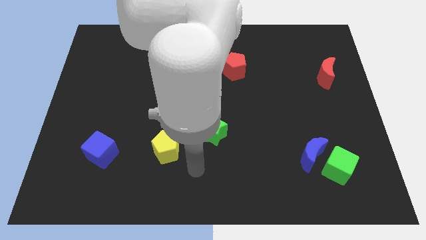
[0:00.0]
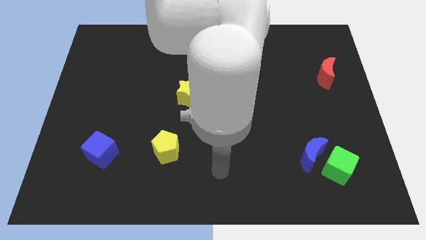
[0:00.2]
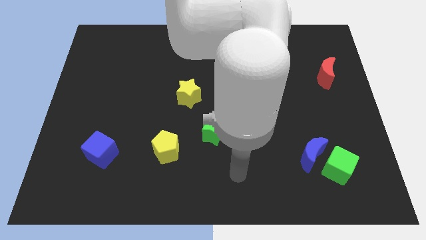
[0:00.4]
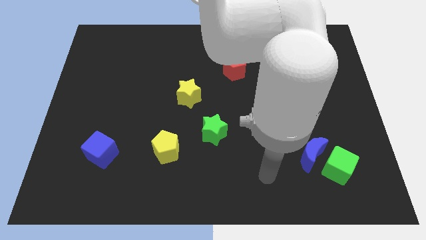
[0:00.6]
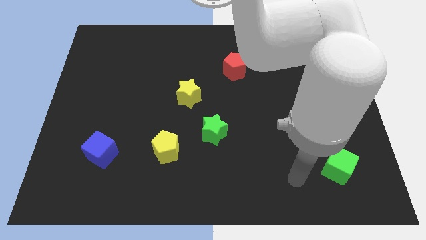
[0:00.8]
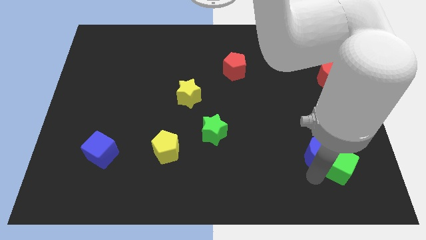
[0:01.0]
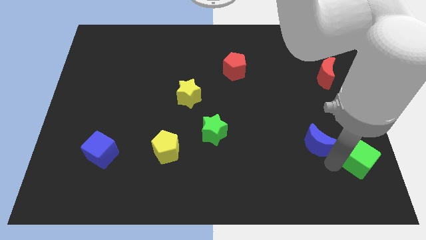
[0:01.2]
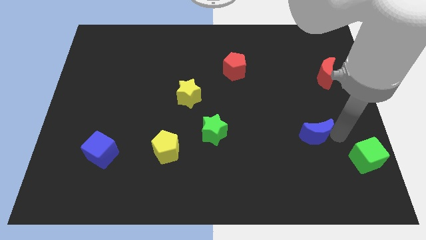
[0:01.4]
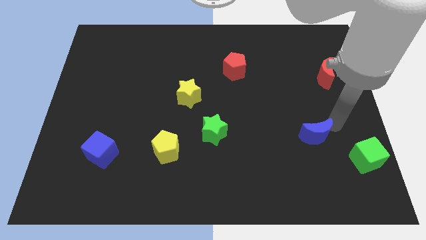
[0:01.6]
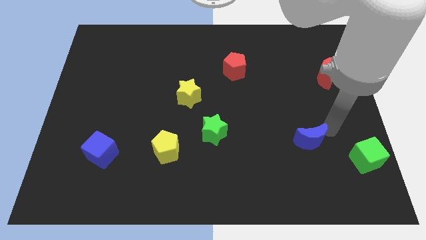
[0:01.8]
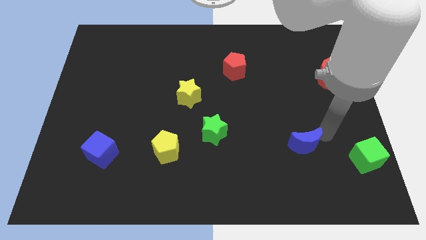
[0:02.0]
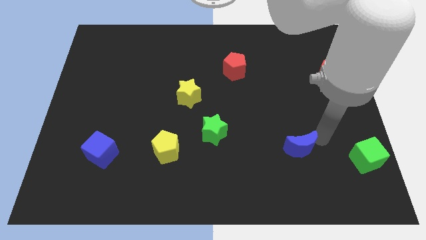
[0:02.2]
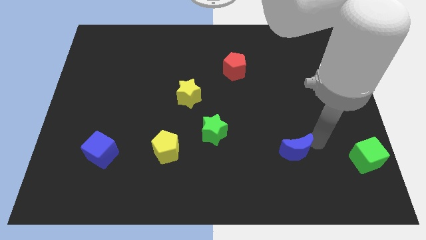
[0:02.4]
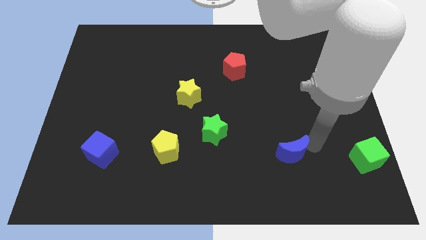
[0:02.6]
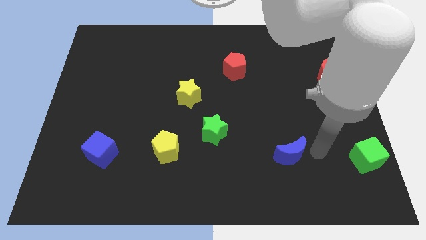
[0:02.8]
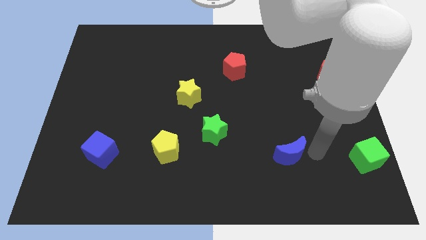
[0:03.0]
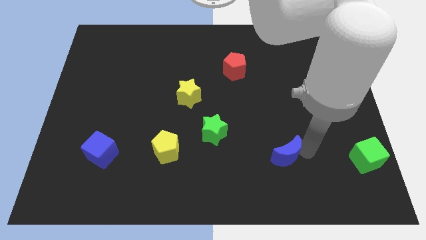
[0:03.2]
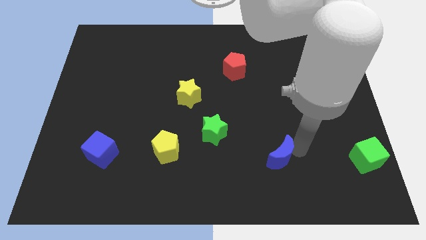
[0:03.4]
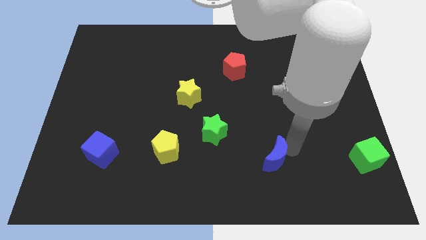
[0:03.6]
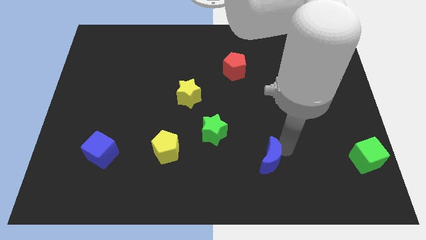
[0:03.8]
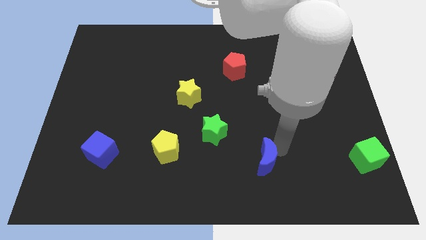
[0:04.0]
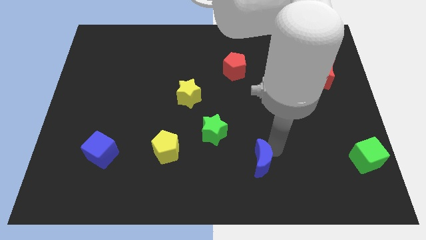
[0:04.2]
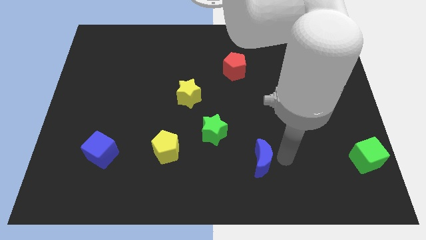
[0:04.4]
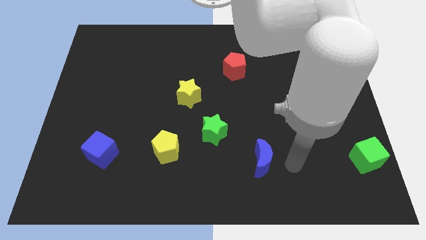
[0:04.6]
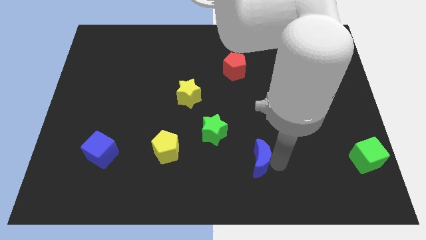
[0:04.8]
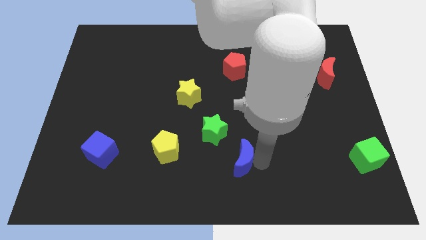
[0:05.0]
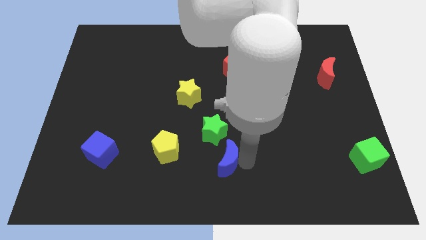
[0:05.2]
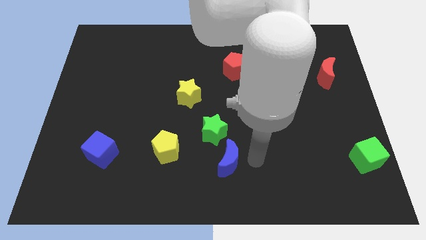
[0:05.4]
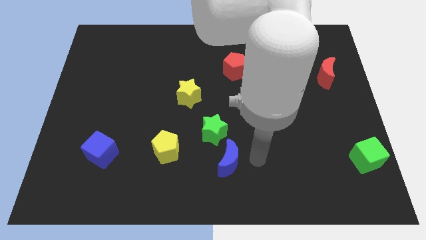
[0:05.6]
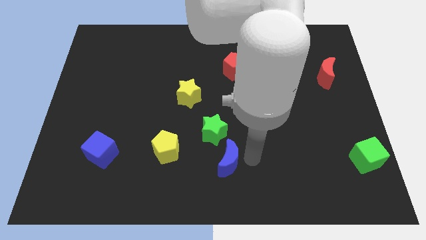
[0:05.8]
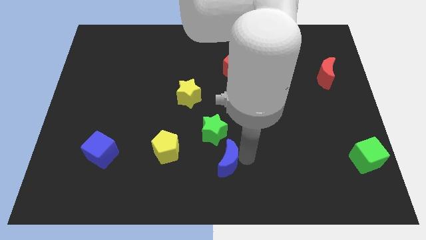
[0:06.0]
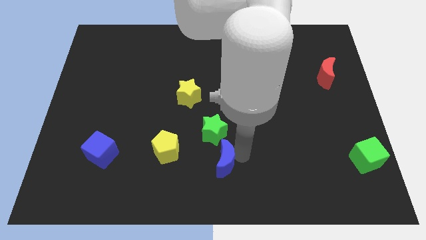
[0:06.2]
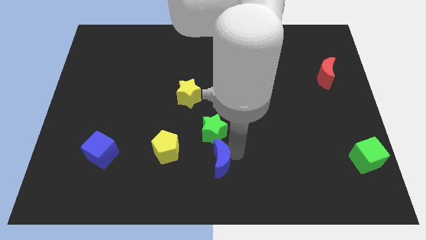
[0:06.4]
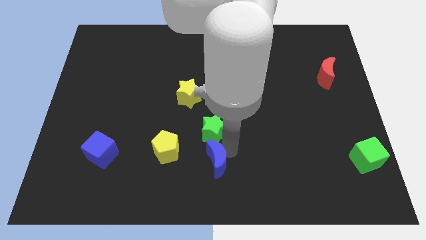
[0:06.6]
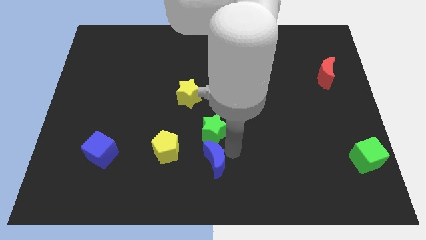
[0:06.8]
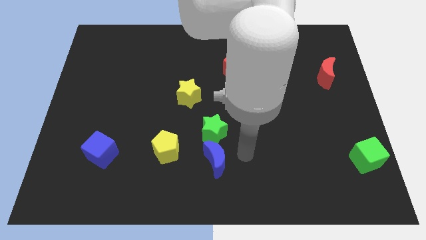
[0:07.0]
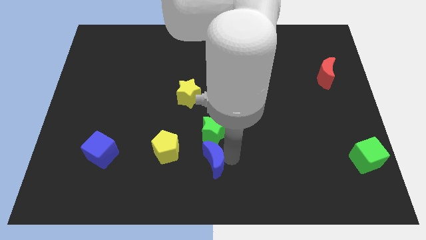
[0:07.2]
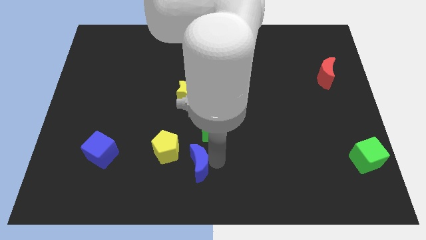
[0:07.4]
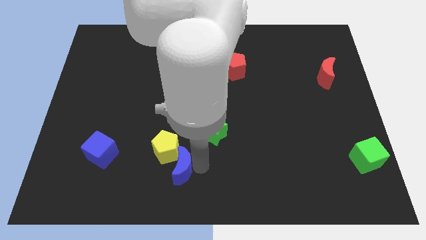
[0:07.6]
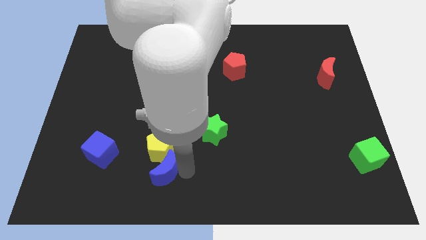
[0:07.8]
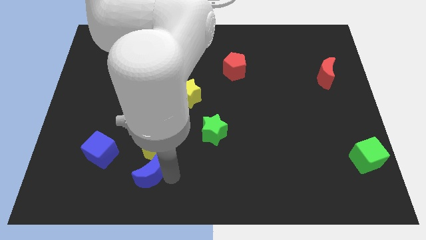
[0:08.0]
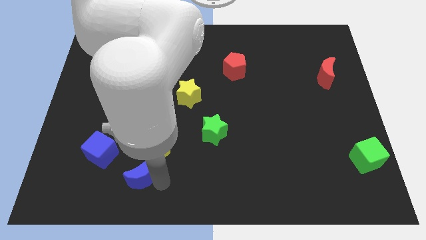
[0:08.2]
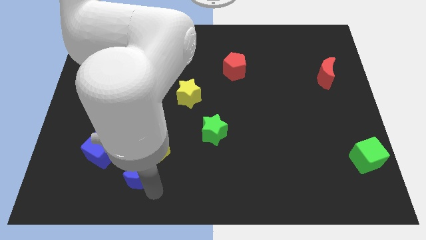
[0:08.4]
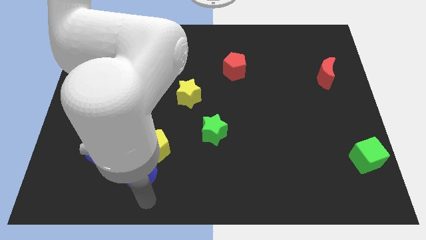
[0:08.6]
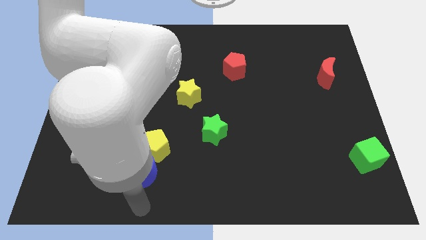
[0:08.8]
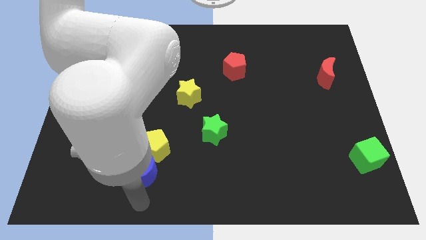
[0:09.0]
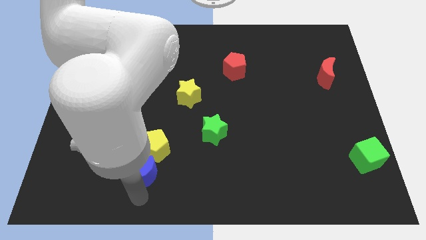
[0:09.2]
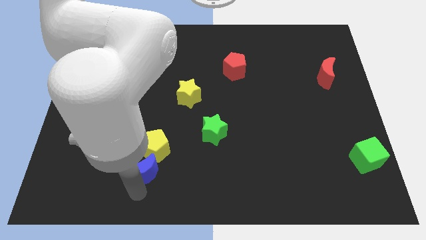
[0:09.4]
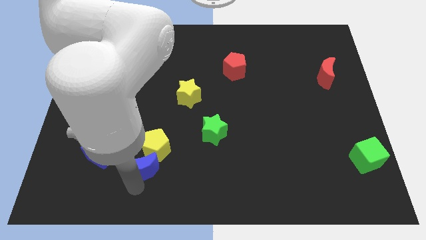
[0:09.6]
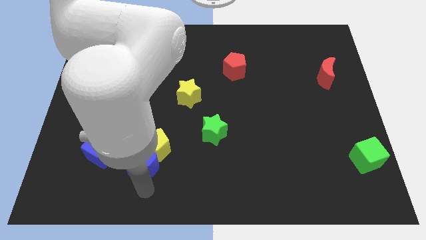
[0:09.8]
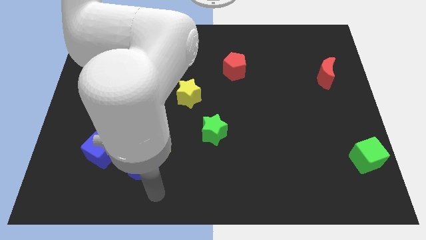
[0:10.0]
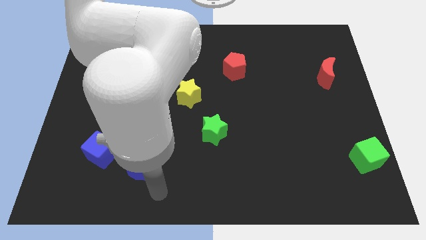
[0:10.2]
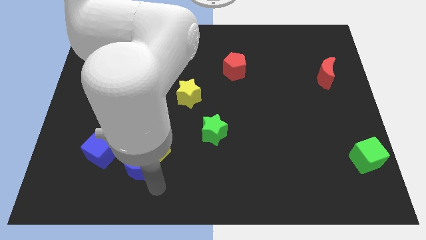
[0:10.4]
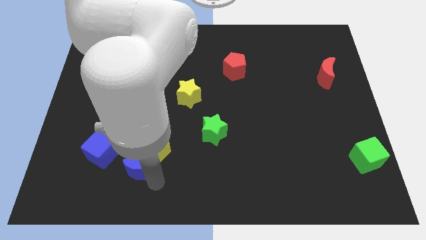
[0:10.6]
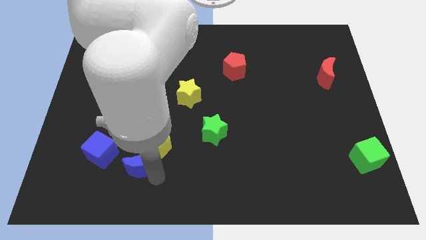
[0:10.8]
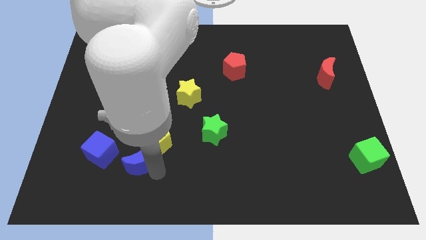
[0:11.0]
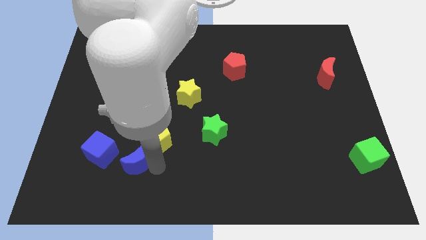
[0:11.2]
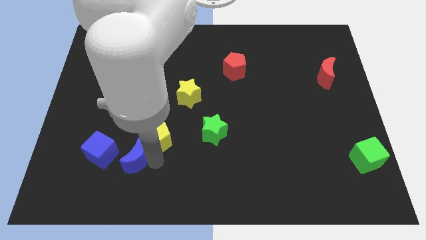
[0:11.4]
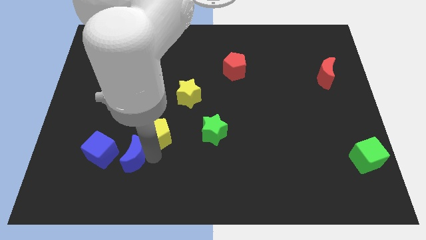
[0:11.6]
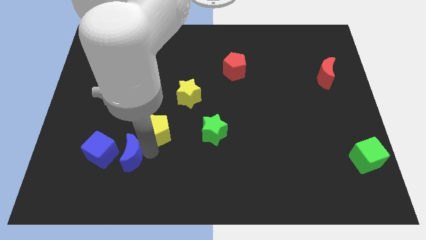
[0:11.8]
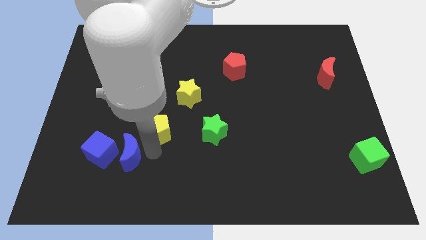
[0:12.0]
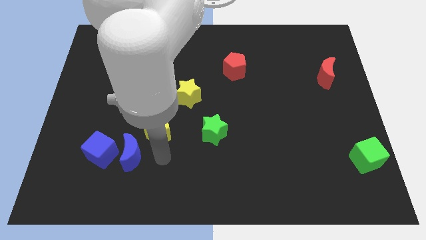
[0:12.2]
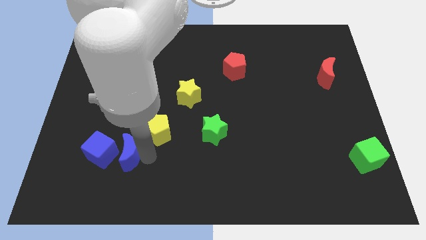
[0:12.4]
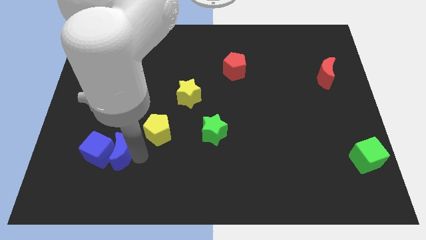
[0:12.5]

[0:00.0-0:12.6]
push the blue moon towards the blue cube
